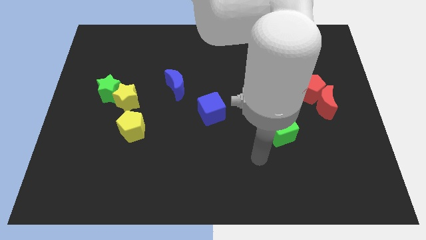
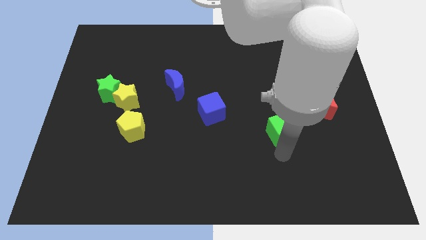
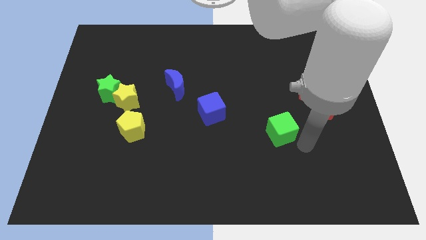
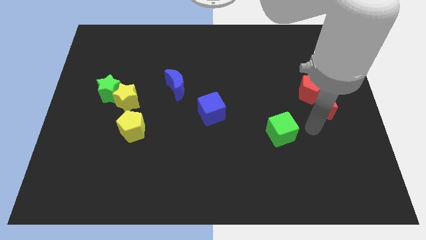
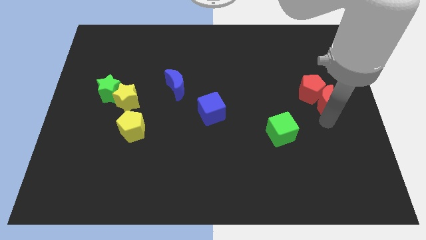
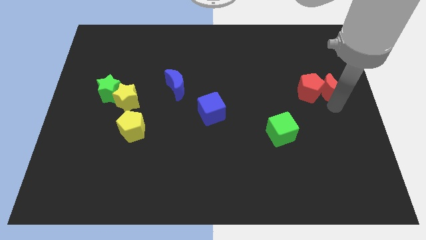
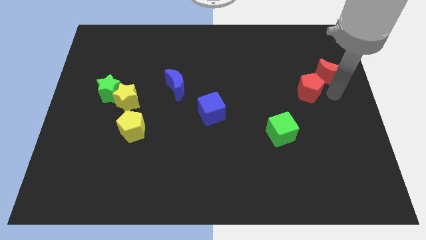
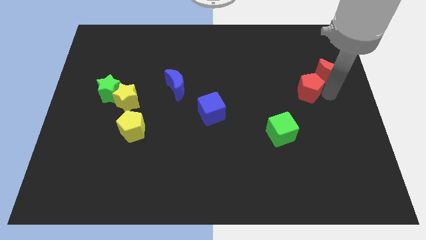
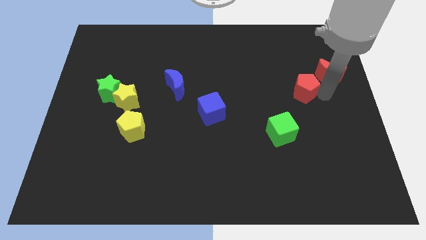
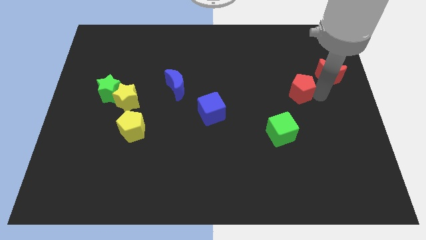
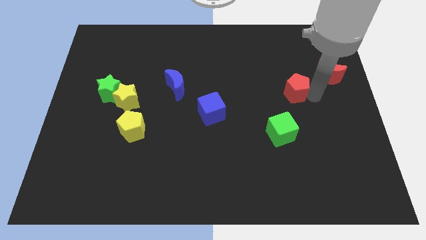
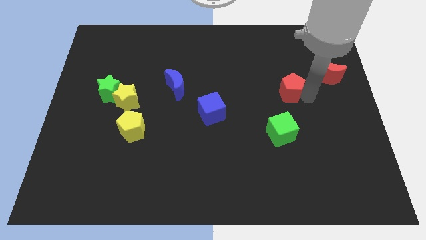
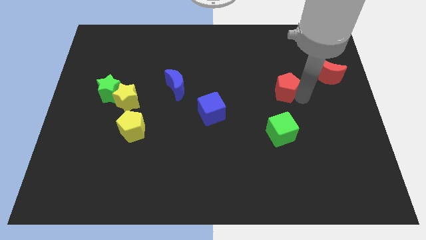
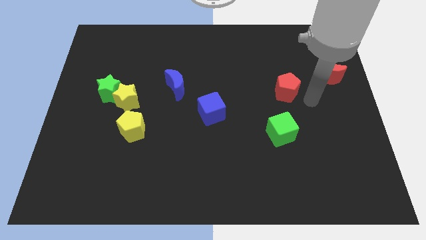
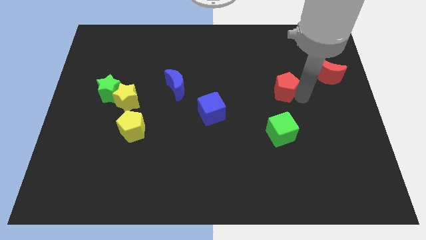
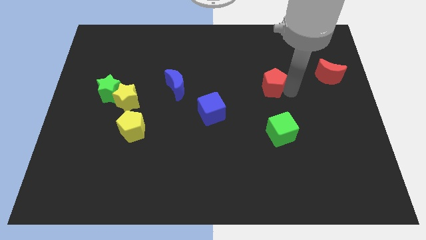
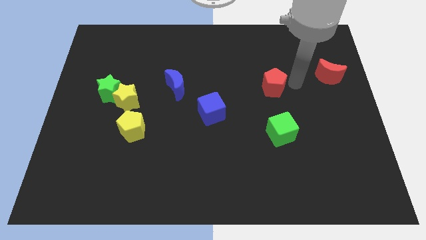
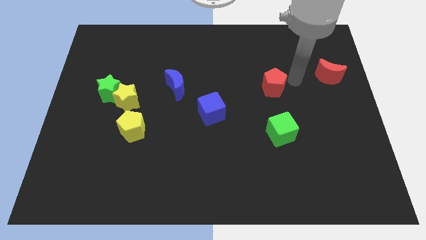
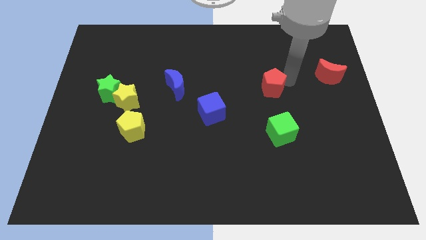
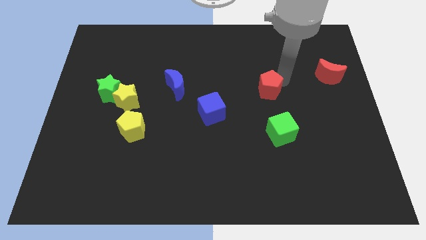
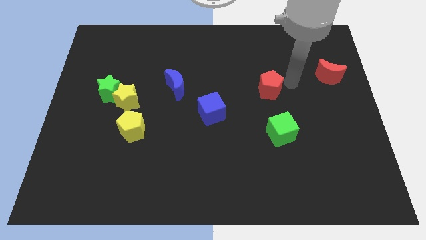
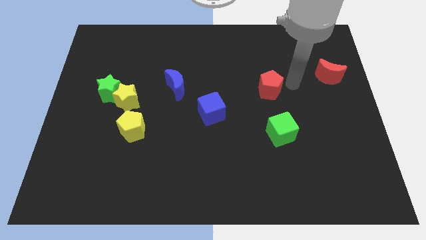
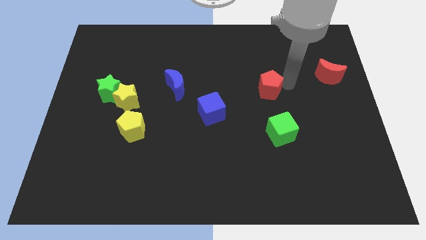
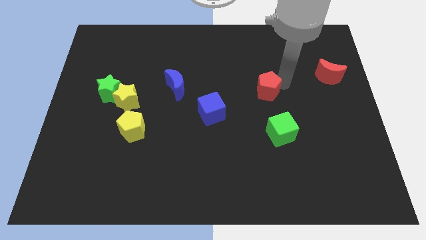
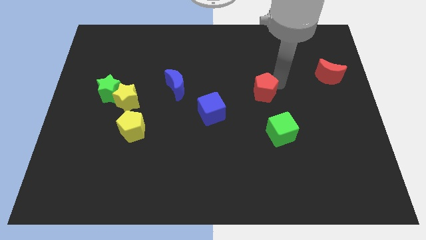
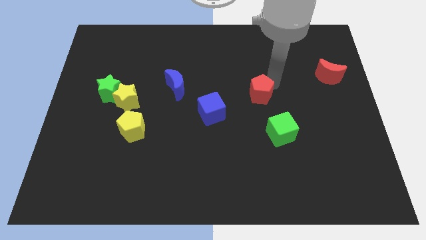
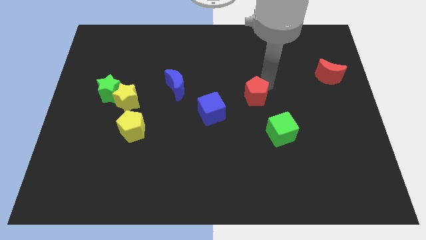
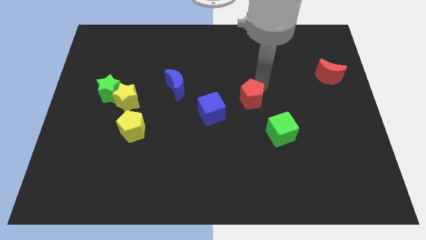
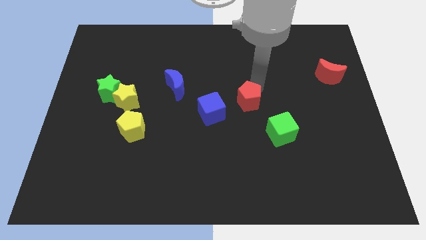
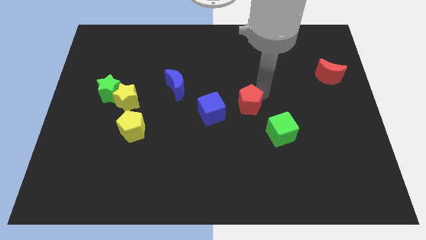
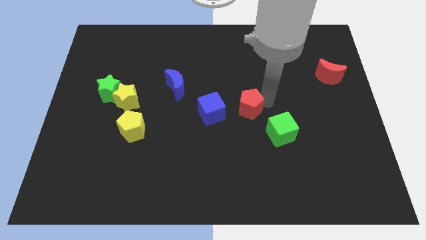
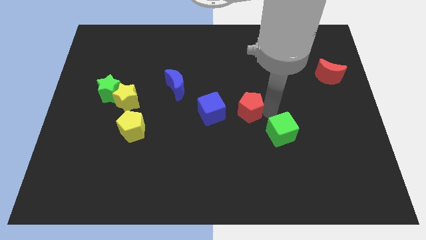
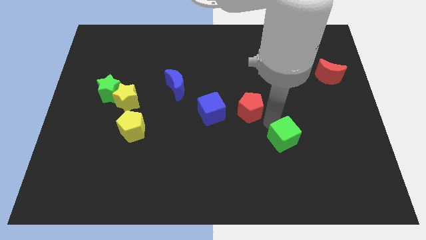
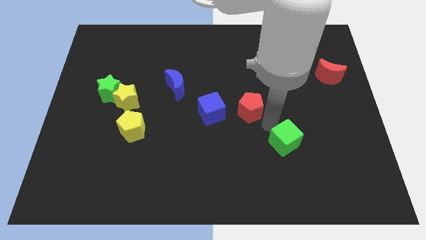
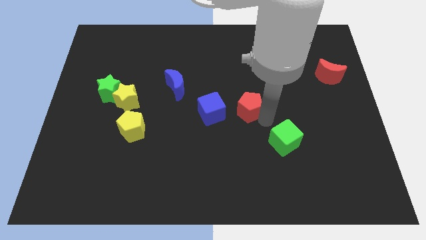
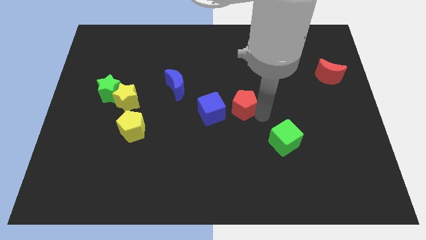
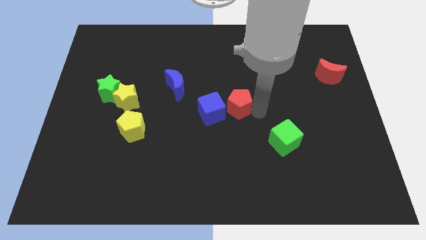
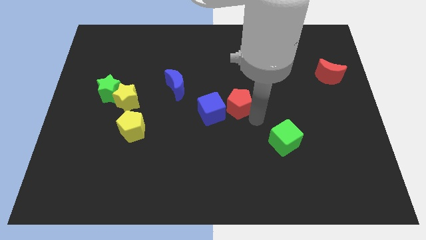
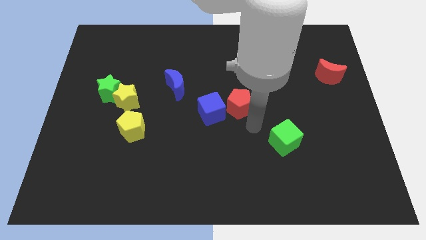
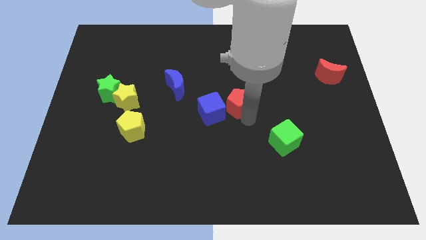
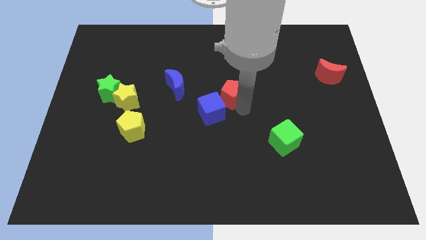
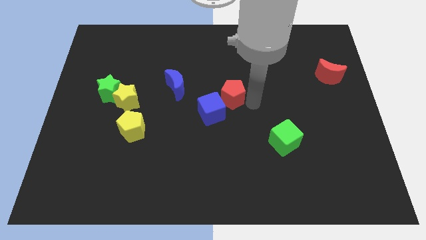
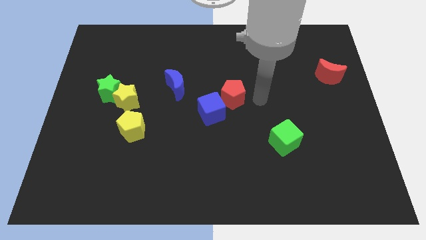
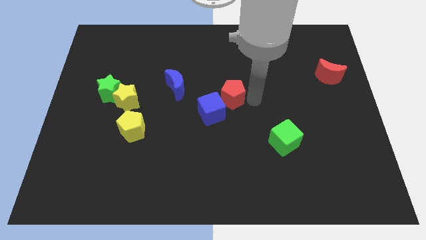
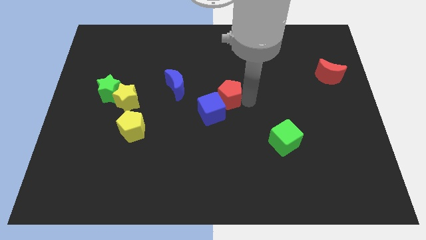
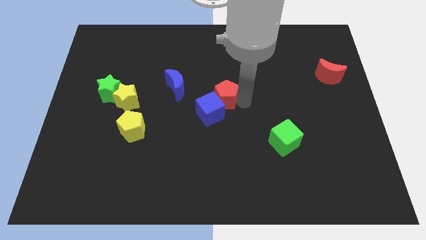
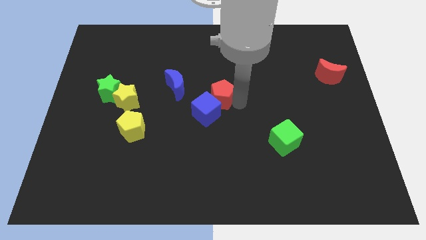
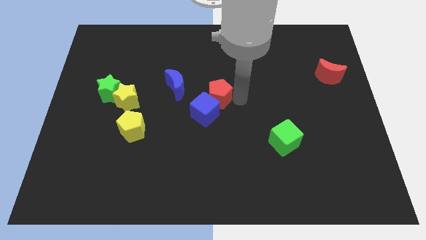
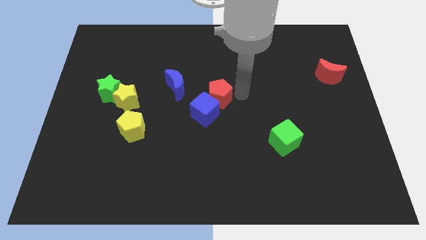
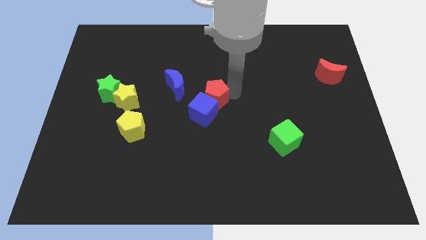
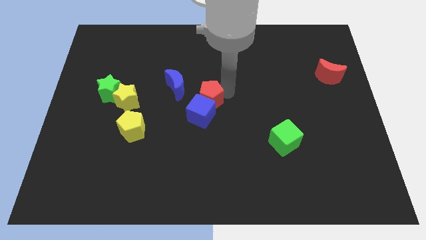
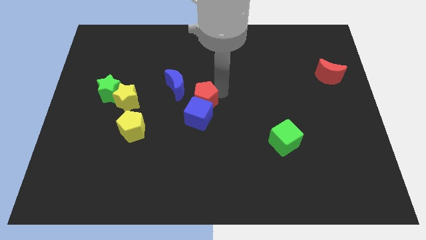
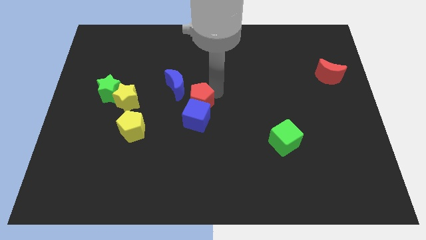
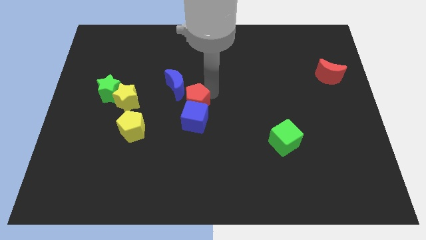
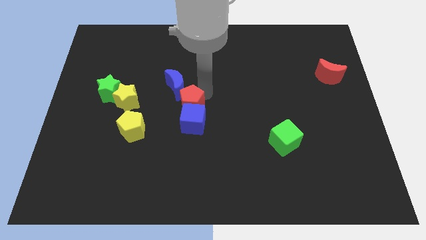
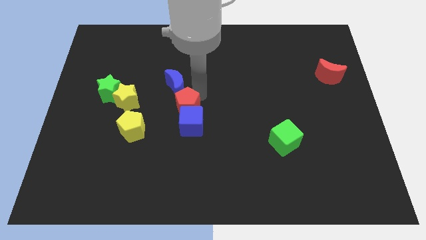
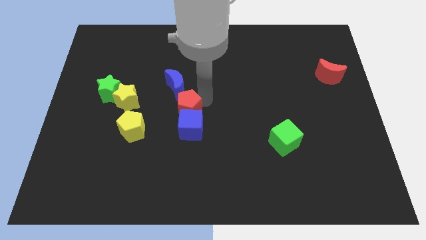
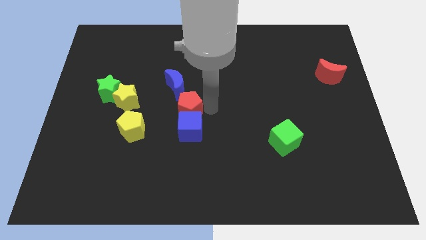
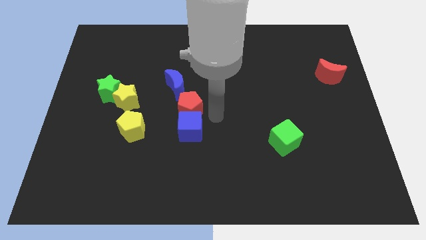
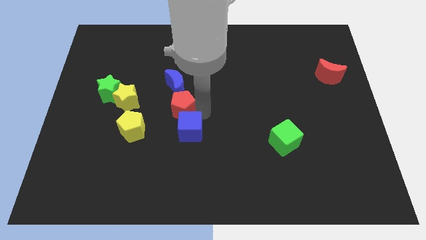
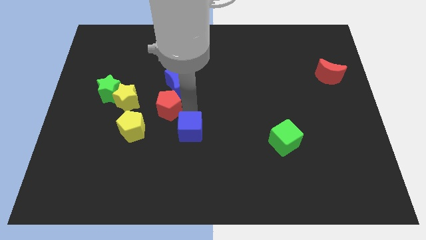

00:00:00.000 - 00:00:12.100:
slide the red pentagon to the bottom left of the blue moon
